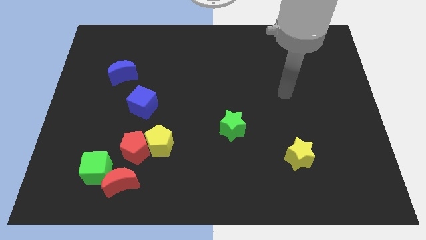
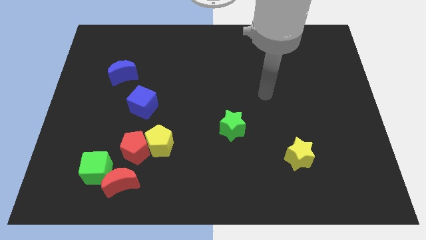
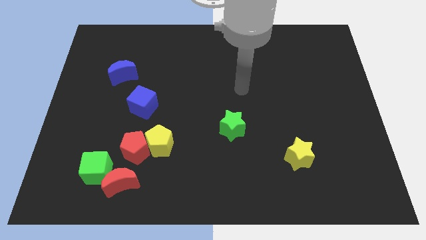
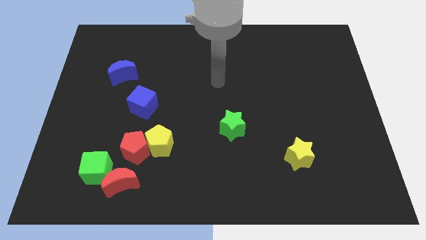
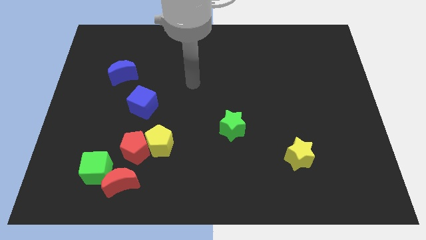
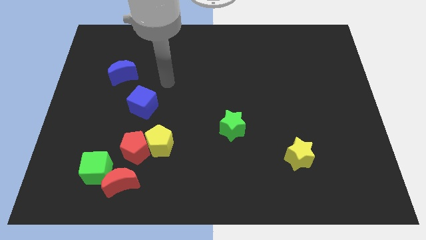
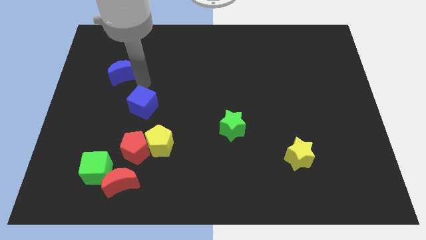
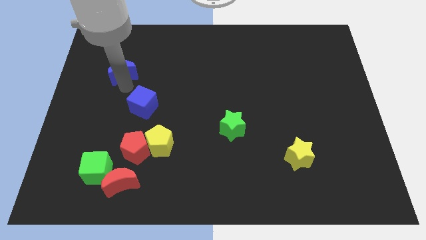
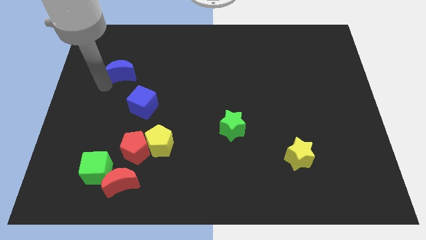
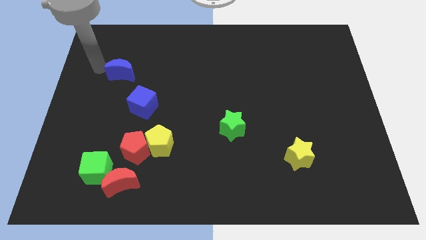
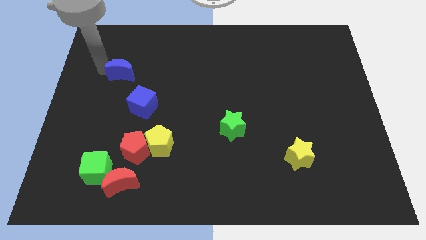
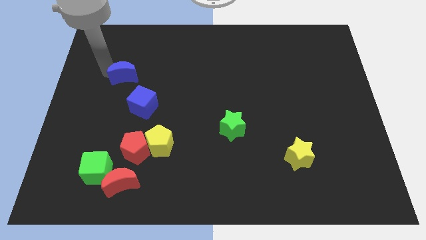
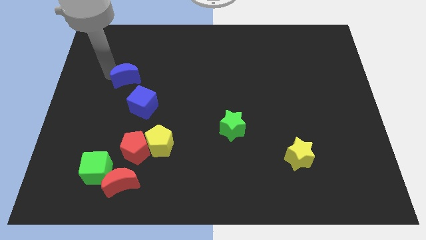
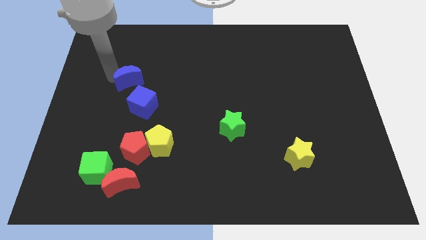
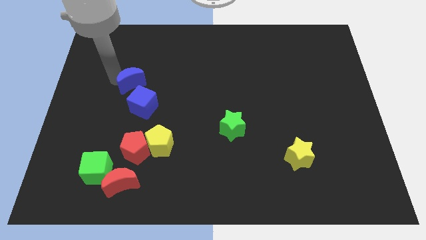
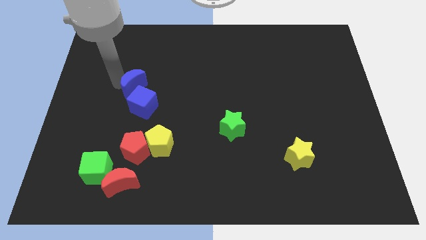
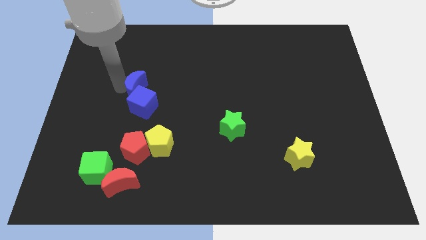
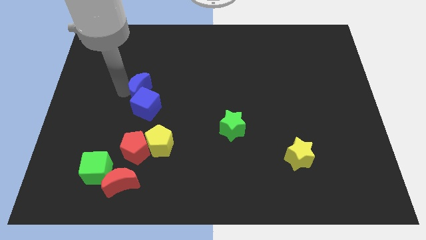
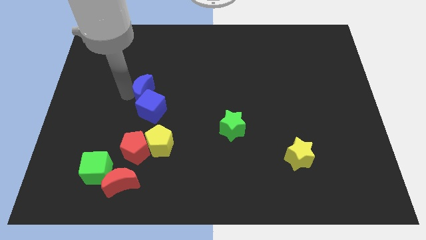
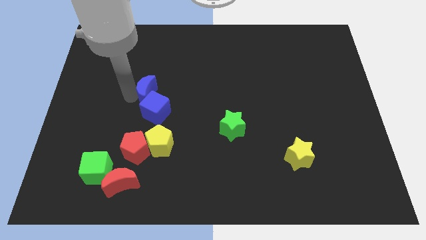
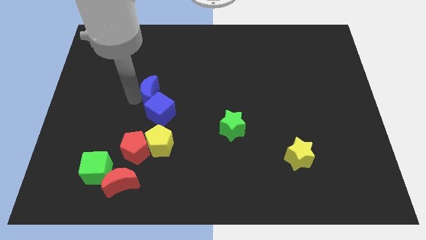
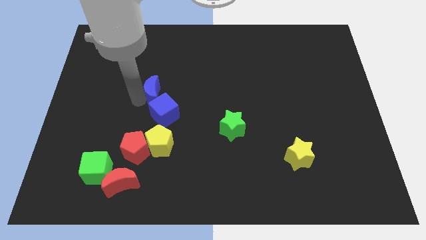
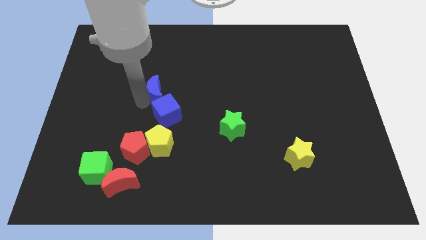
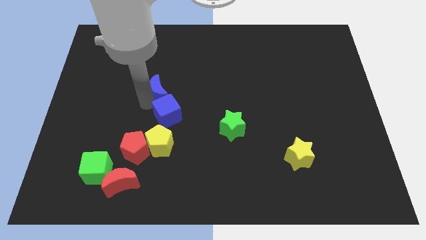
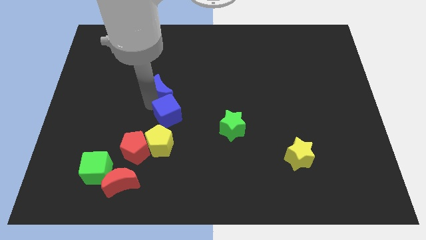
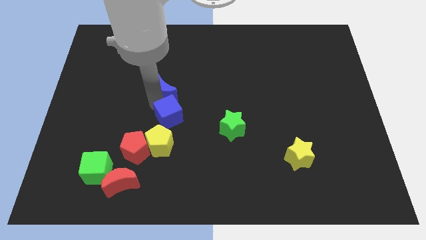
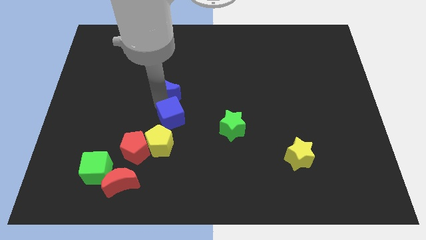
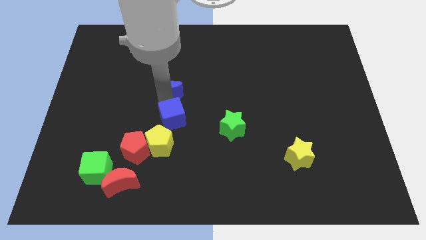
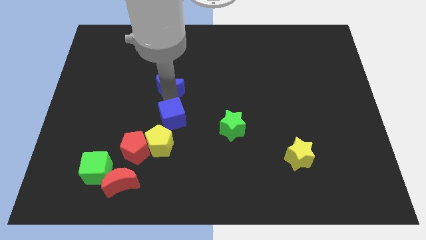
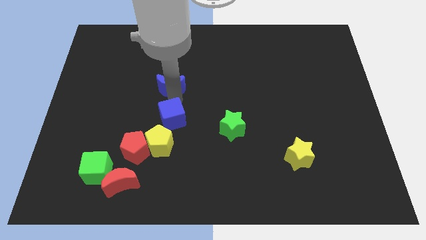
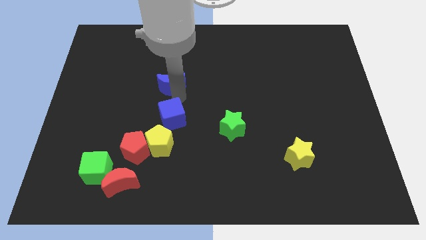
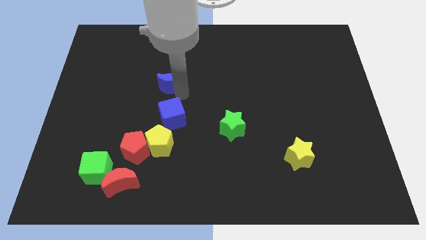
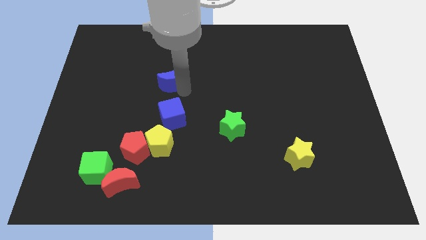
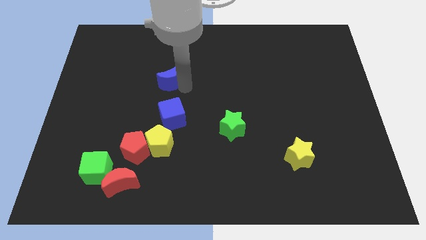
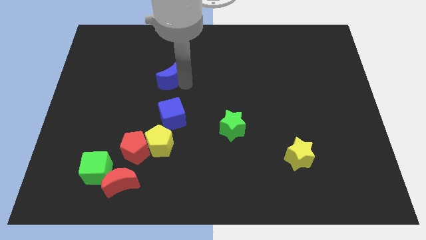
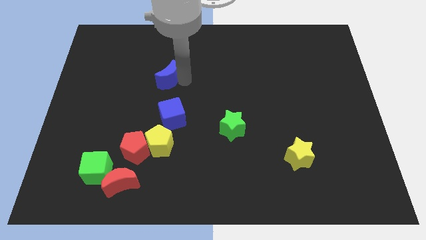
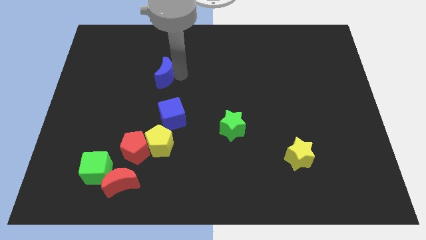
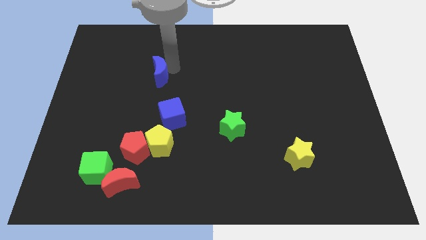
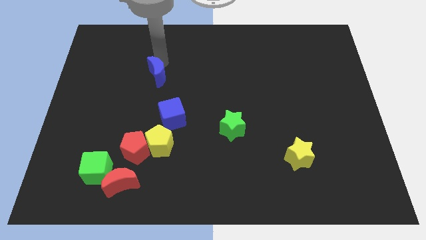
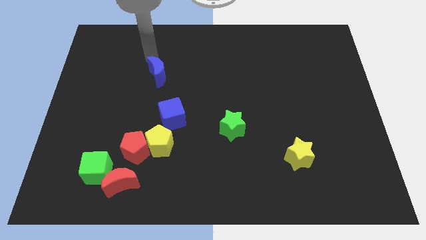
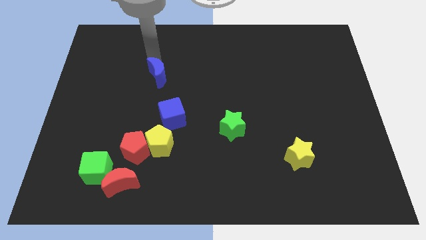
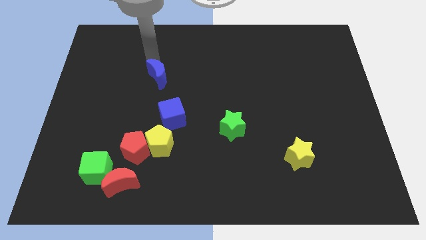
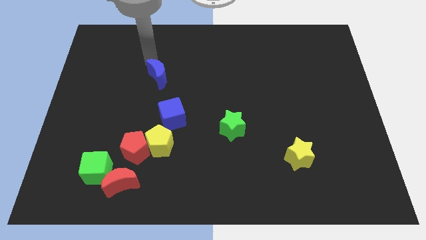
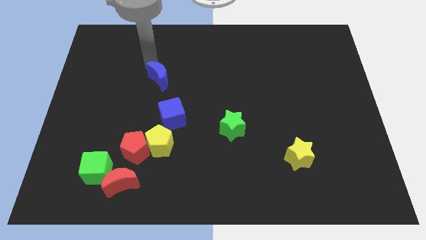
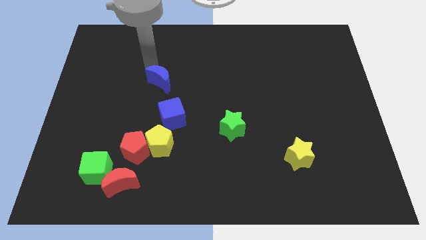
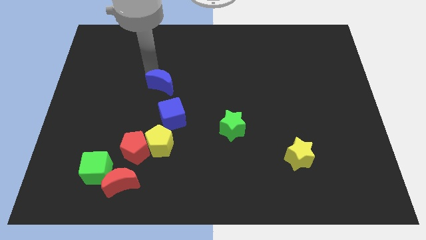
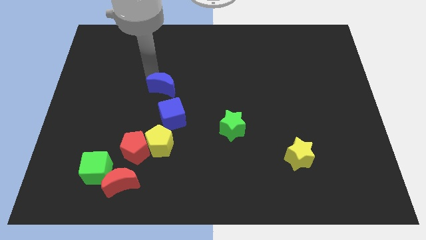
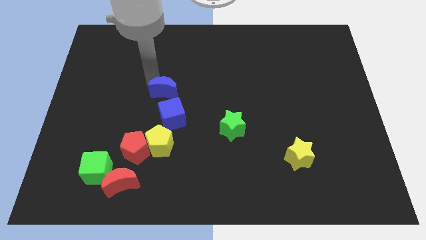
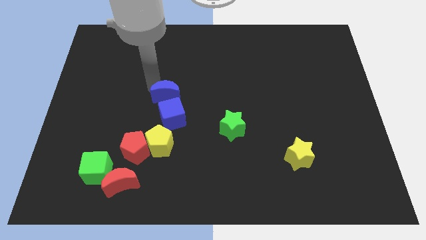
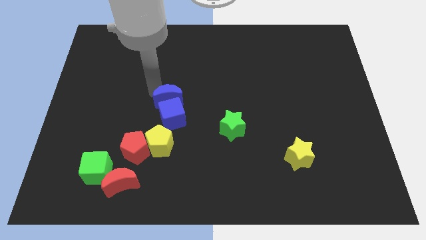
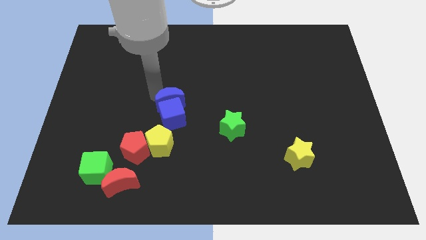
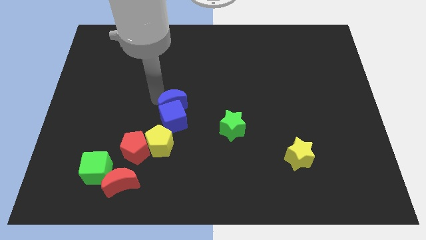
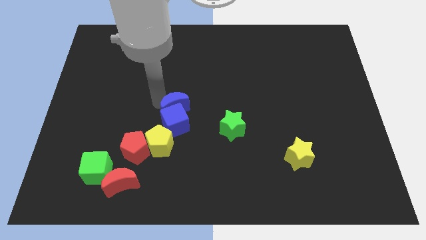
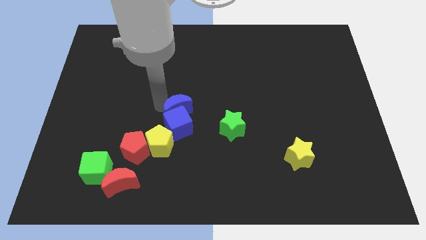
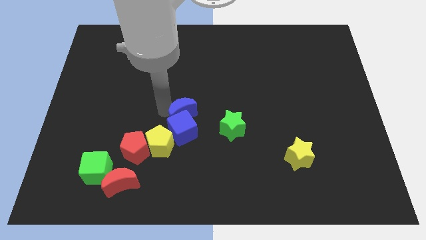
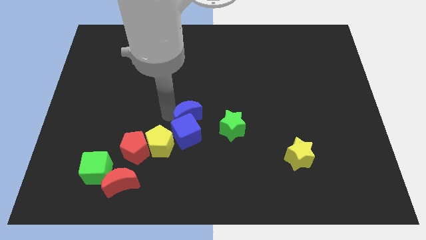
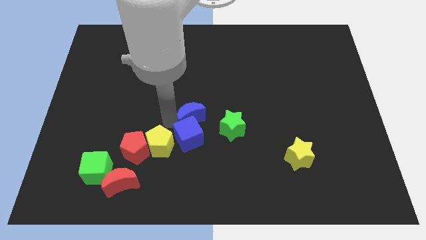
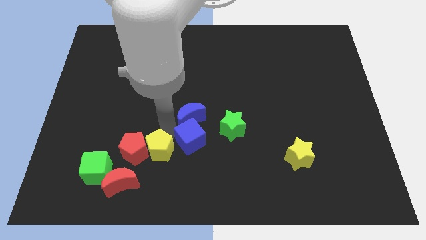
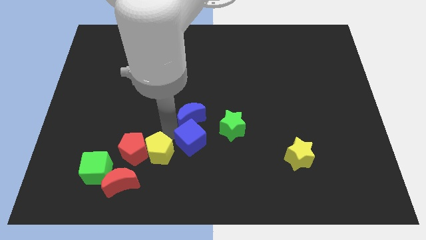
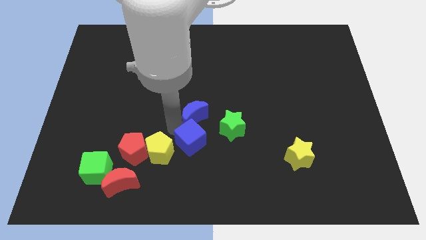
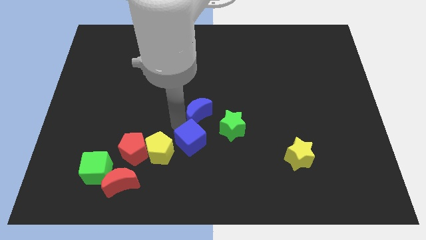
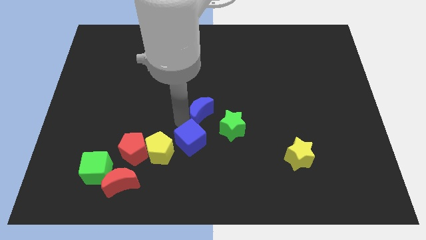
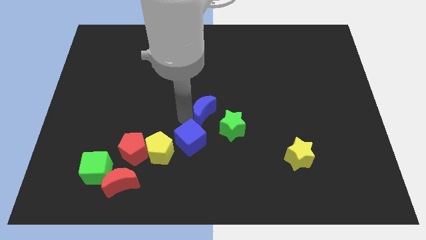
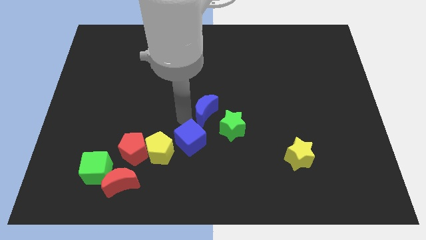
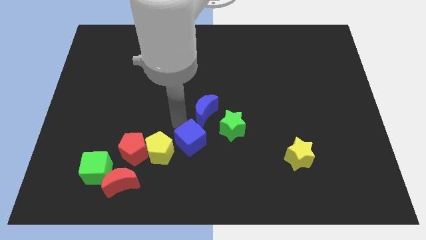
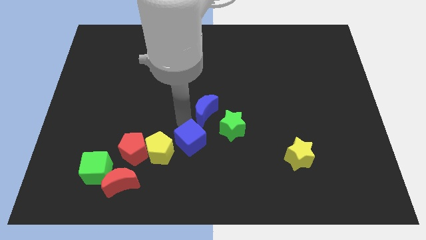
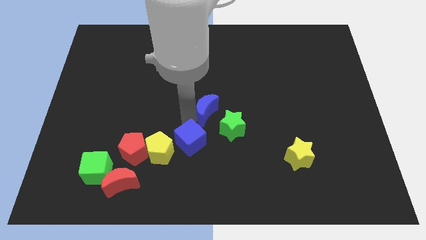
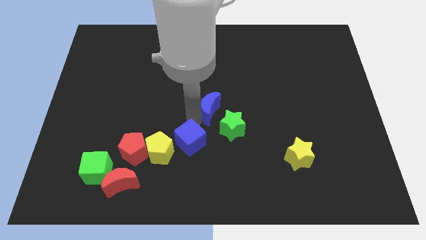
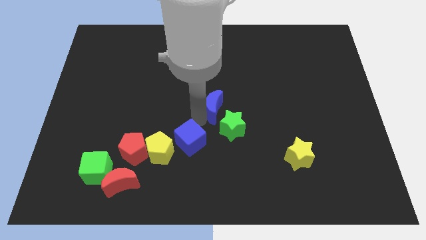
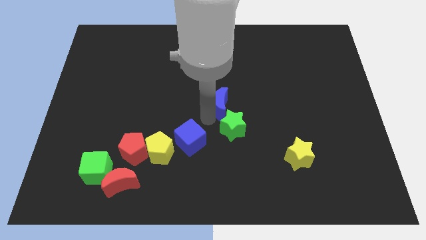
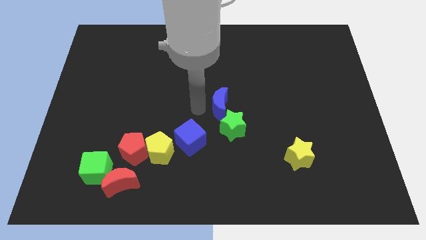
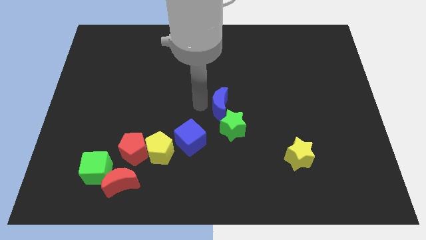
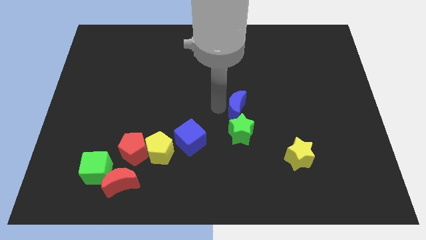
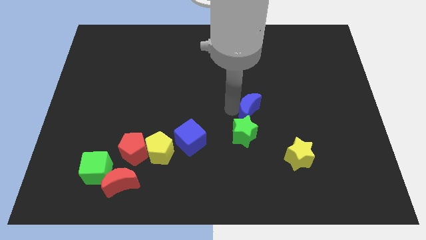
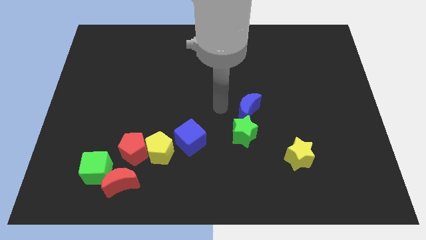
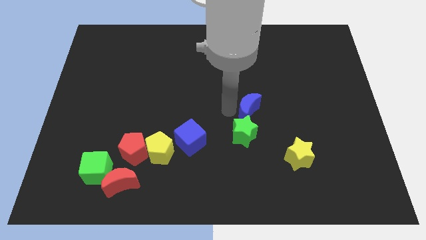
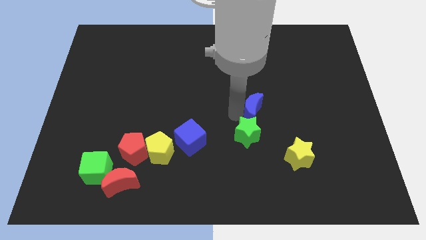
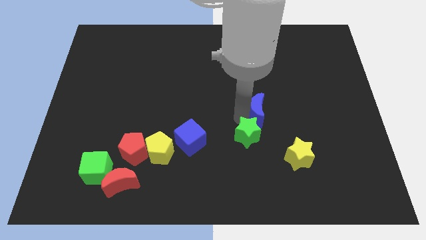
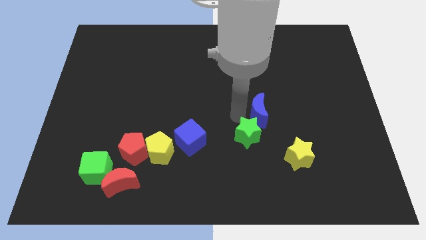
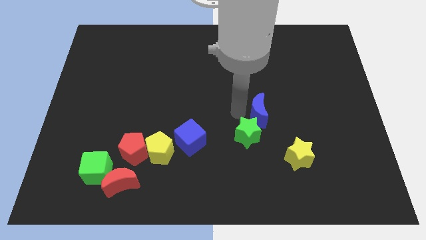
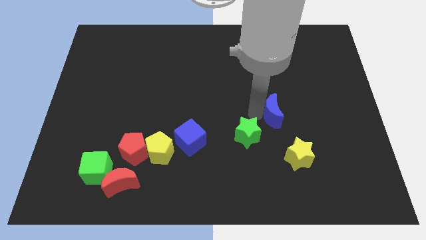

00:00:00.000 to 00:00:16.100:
put the blue moon to the top of the yellow star
